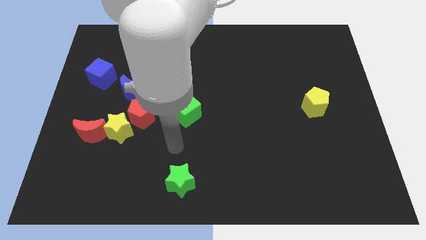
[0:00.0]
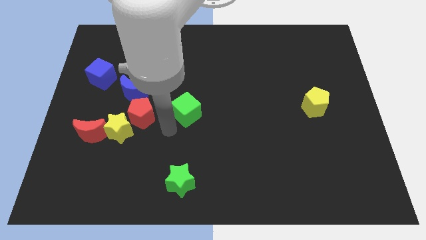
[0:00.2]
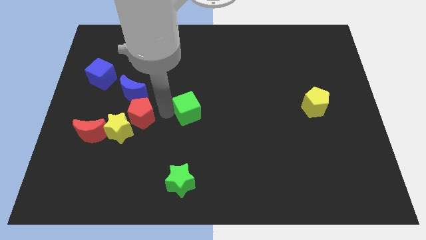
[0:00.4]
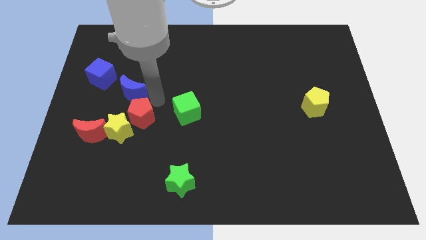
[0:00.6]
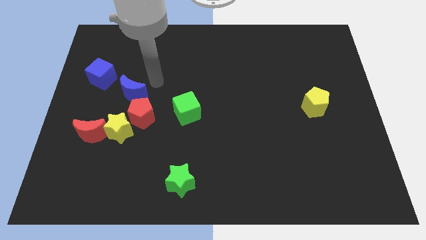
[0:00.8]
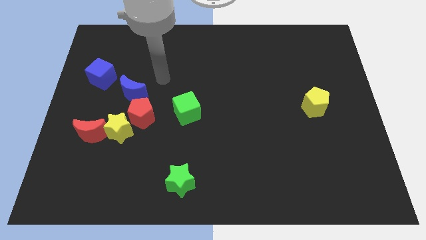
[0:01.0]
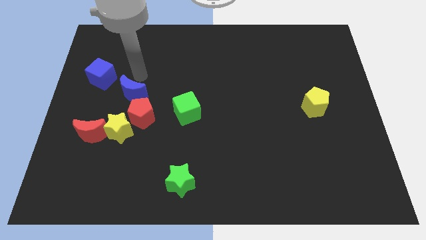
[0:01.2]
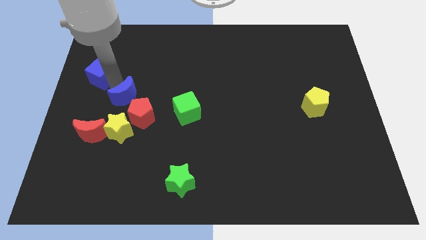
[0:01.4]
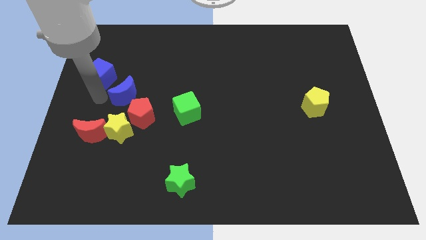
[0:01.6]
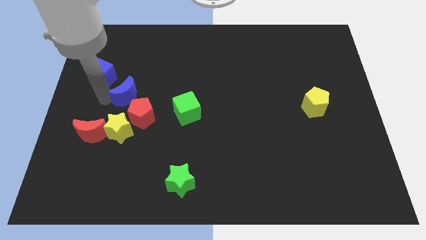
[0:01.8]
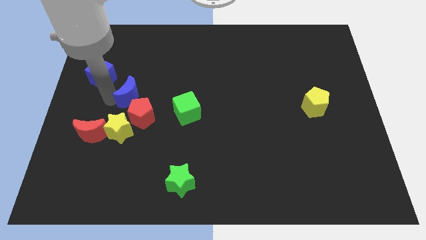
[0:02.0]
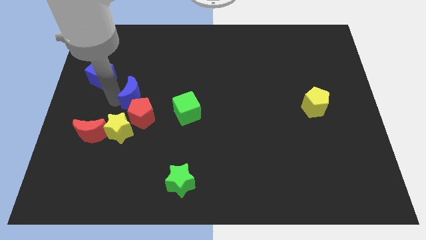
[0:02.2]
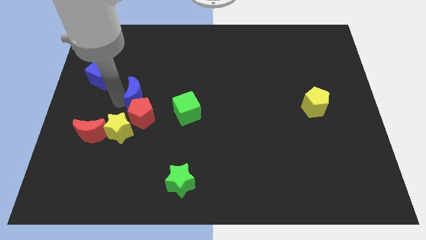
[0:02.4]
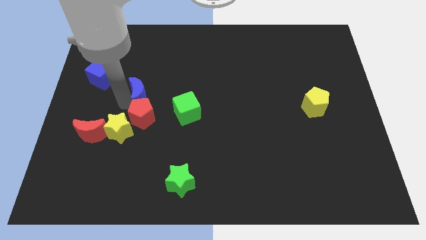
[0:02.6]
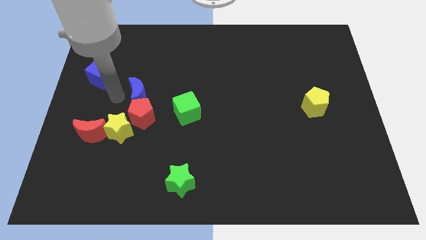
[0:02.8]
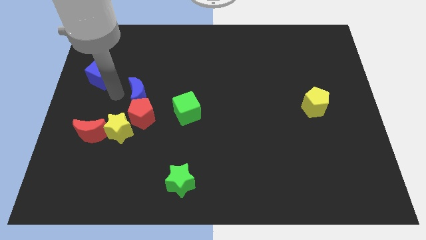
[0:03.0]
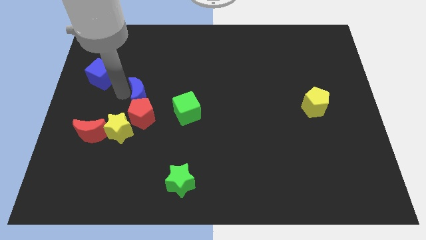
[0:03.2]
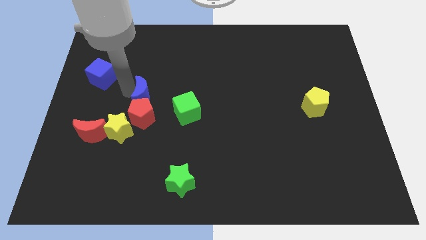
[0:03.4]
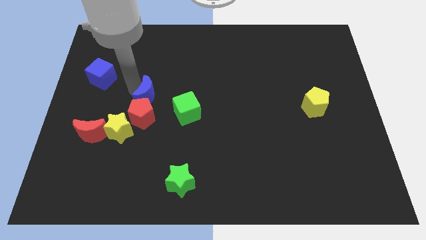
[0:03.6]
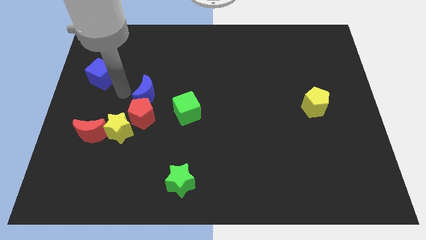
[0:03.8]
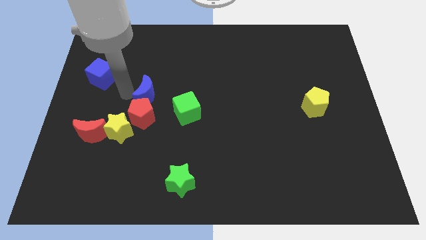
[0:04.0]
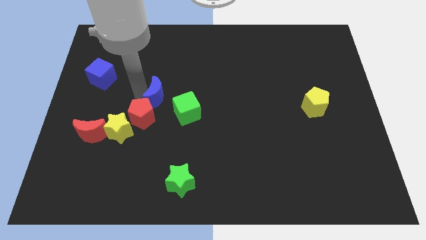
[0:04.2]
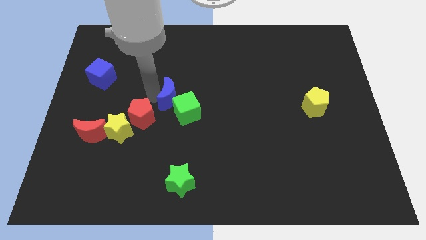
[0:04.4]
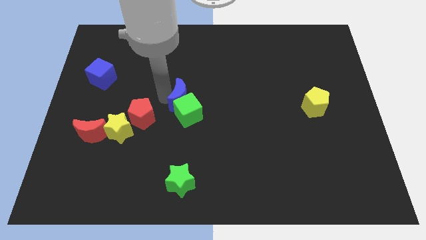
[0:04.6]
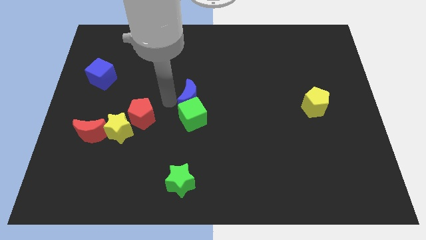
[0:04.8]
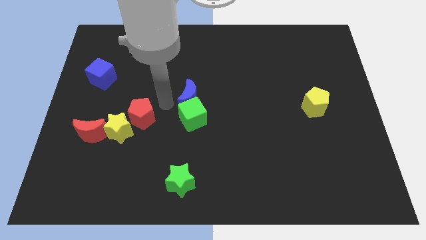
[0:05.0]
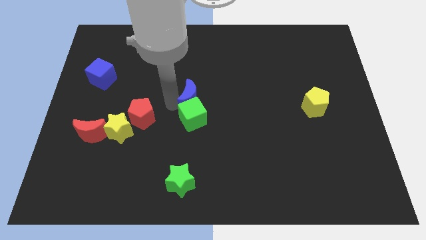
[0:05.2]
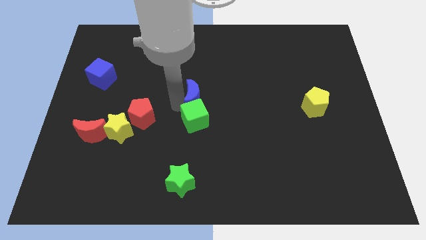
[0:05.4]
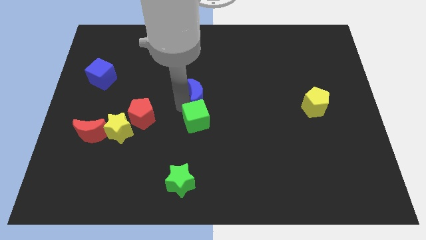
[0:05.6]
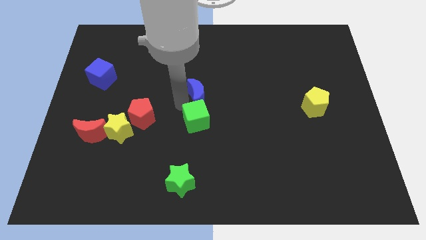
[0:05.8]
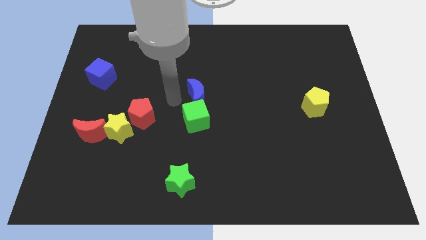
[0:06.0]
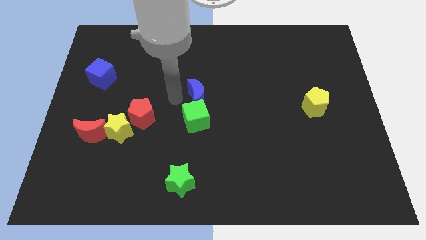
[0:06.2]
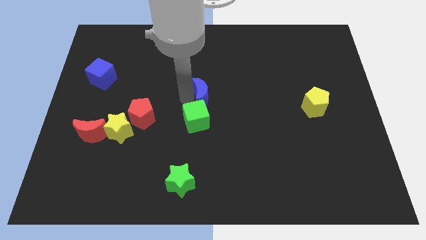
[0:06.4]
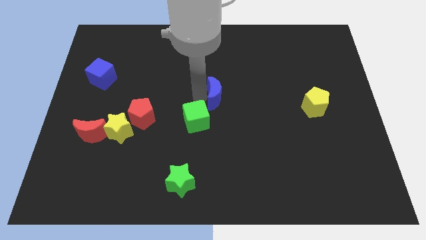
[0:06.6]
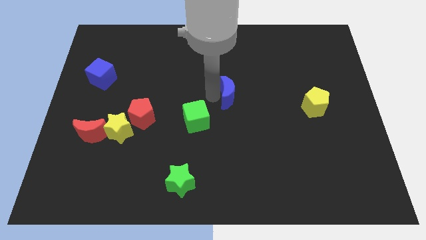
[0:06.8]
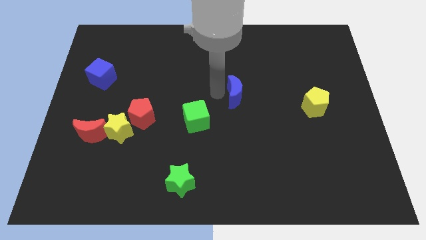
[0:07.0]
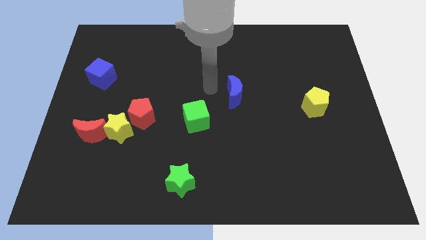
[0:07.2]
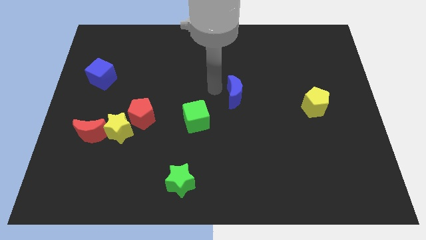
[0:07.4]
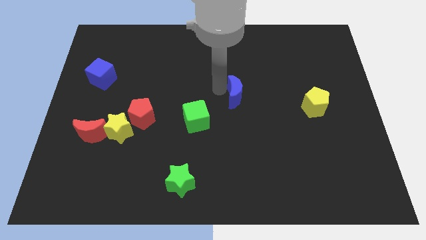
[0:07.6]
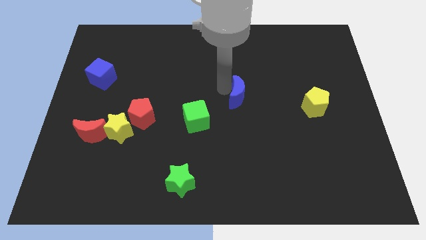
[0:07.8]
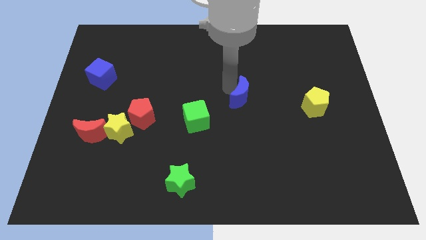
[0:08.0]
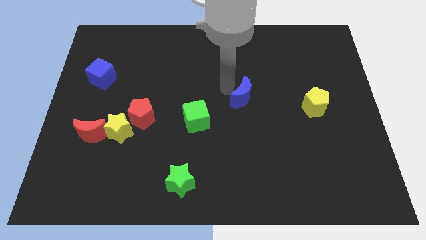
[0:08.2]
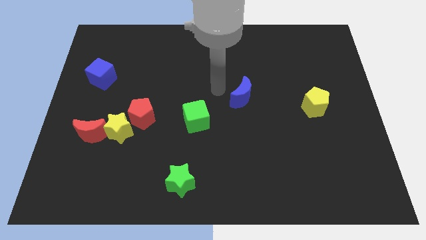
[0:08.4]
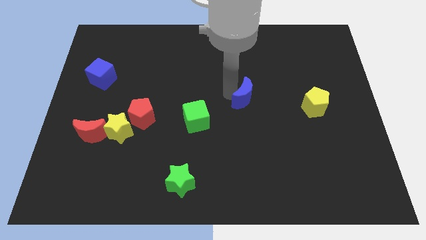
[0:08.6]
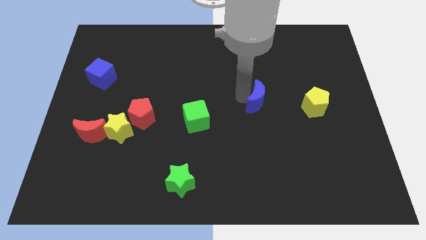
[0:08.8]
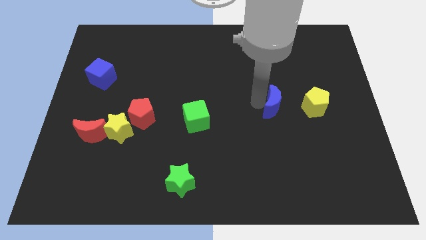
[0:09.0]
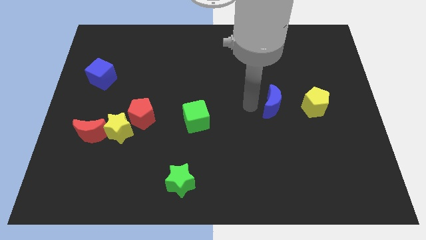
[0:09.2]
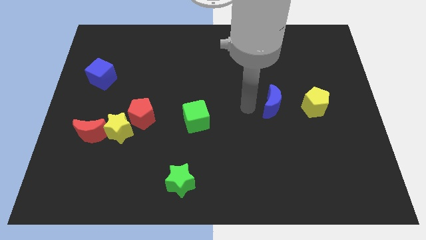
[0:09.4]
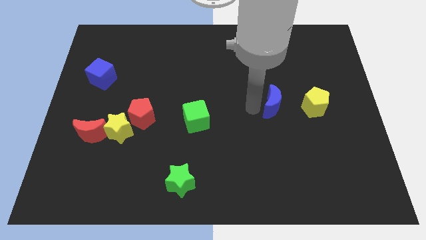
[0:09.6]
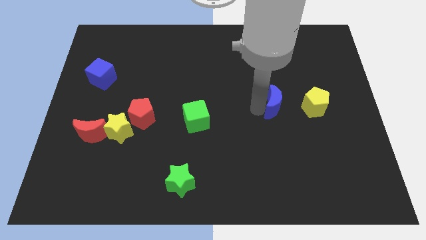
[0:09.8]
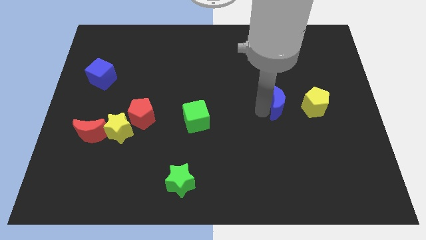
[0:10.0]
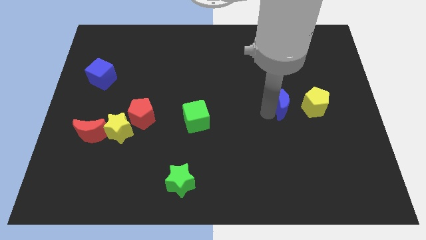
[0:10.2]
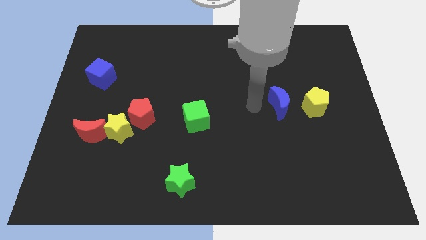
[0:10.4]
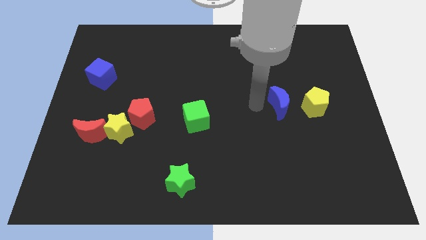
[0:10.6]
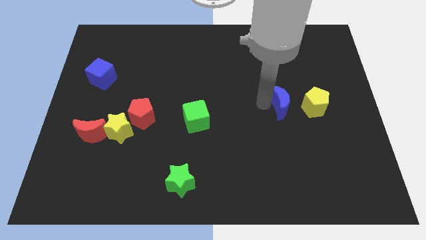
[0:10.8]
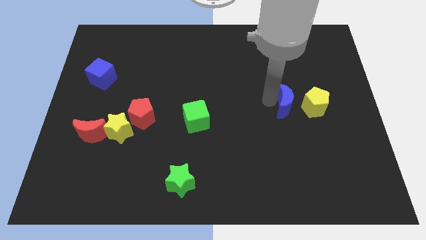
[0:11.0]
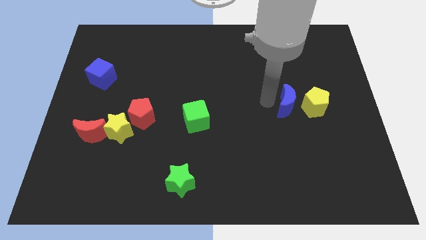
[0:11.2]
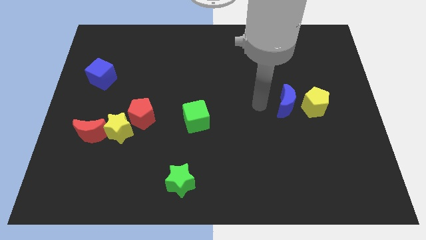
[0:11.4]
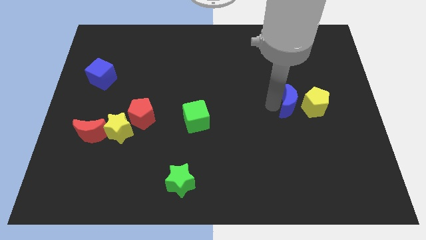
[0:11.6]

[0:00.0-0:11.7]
put the blue moon close to the yellow pentagon

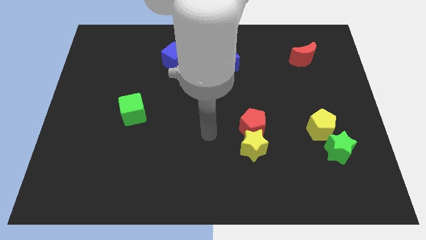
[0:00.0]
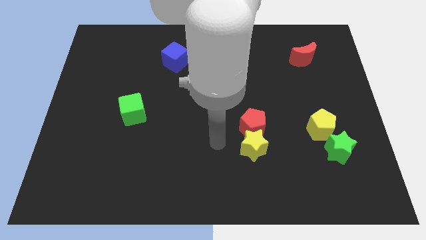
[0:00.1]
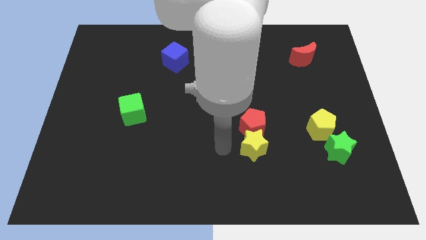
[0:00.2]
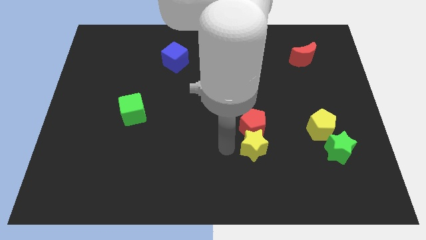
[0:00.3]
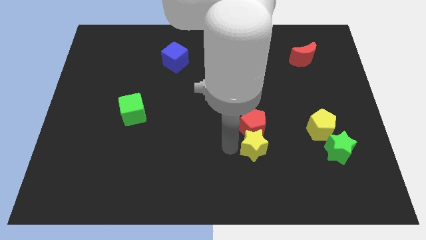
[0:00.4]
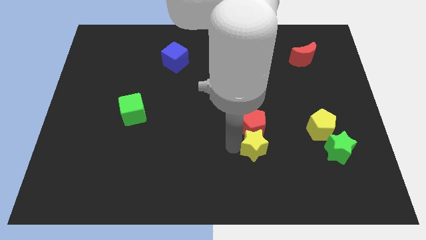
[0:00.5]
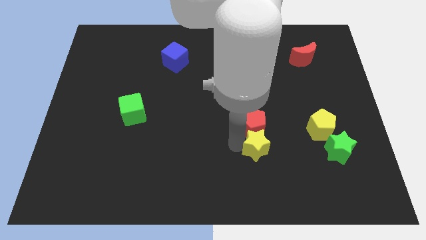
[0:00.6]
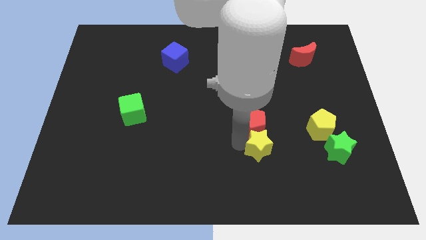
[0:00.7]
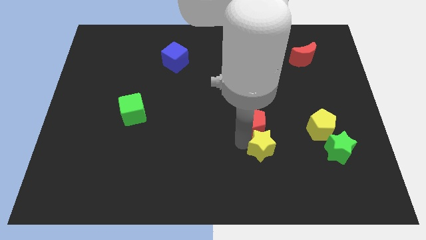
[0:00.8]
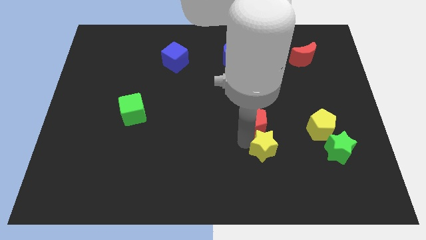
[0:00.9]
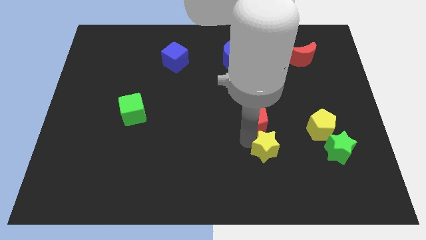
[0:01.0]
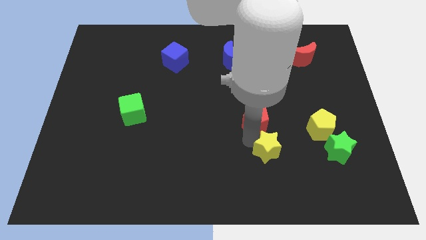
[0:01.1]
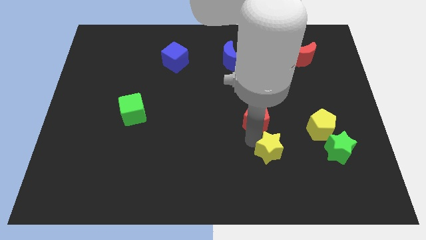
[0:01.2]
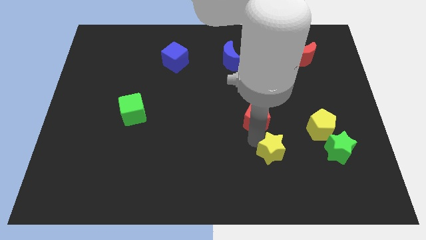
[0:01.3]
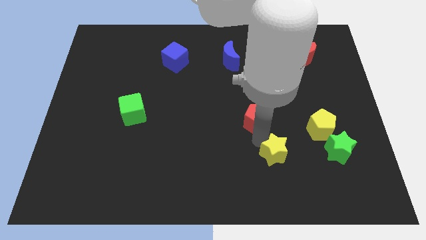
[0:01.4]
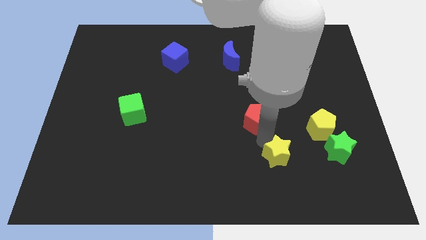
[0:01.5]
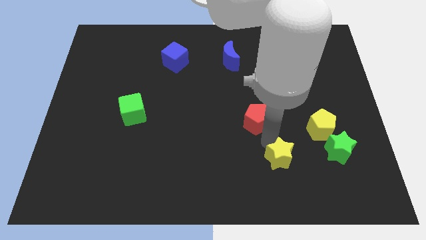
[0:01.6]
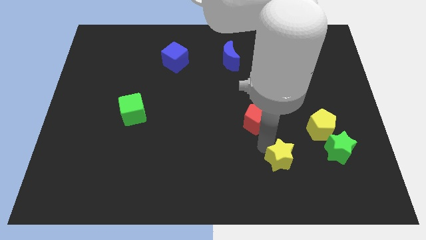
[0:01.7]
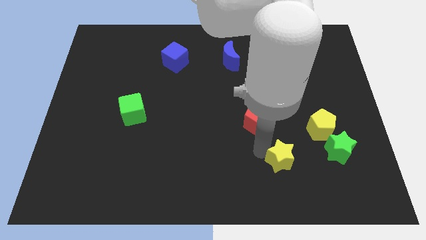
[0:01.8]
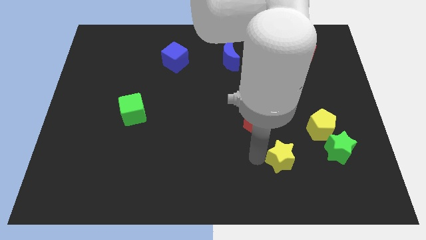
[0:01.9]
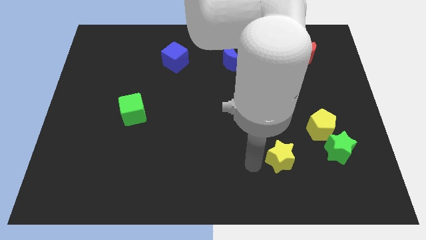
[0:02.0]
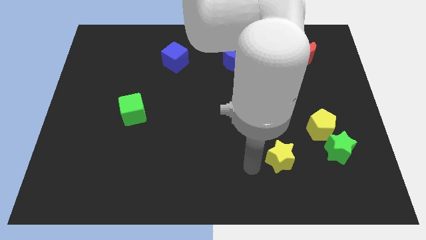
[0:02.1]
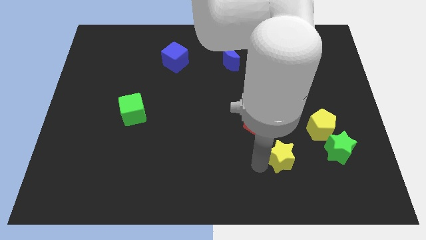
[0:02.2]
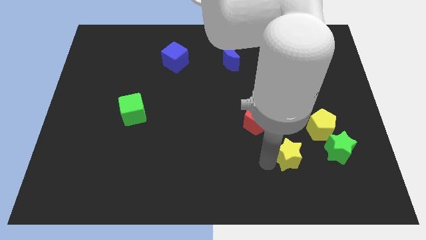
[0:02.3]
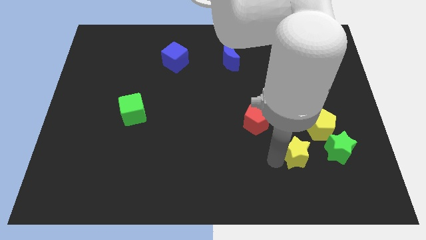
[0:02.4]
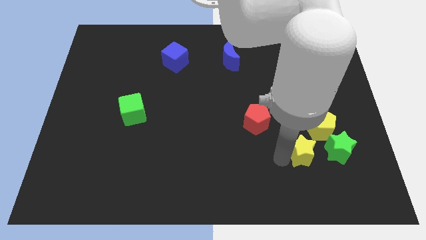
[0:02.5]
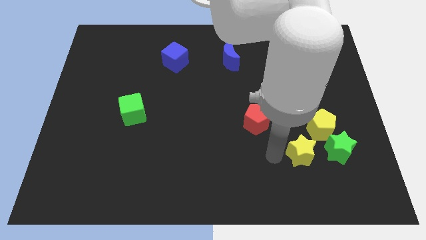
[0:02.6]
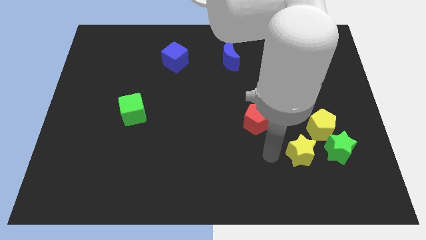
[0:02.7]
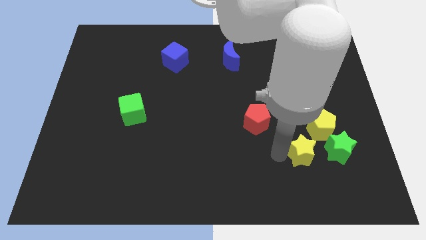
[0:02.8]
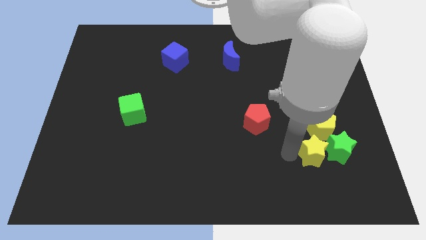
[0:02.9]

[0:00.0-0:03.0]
slide the yellow star towards the green star
